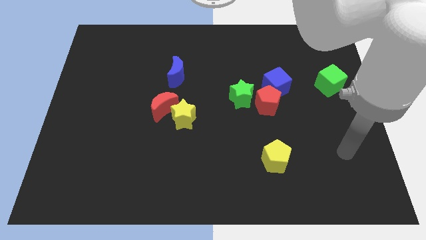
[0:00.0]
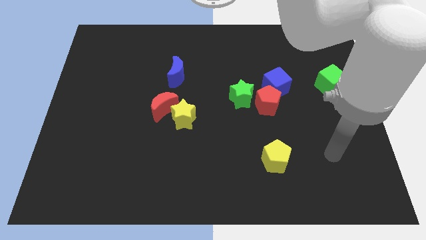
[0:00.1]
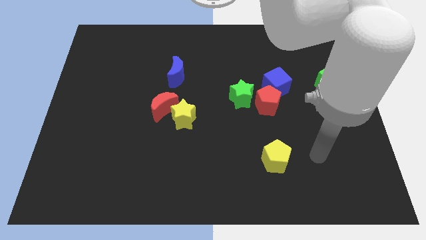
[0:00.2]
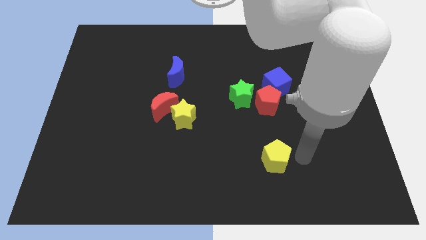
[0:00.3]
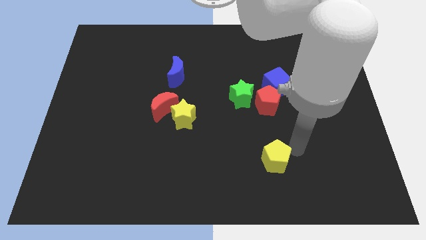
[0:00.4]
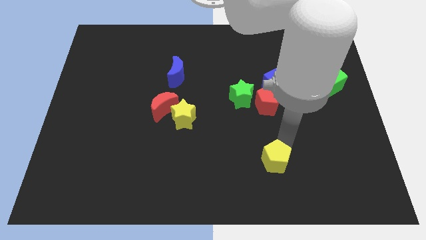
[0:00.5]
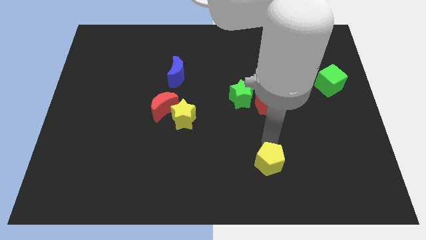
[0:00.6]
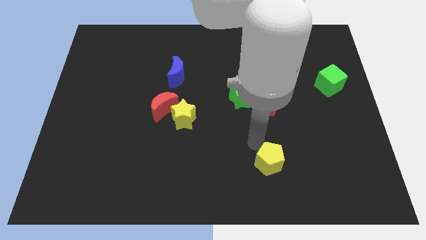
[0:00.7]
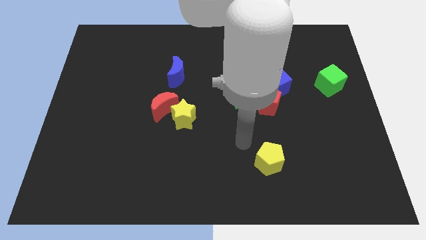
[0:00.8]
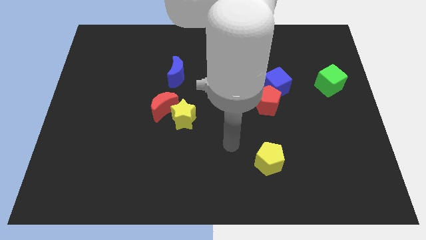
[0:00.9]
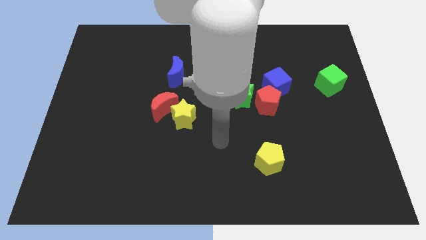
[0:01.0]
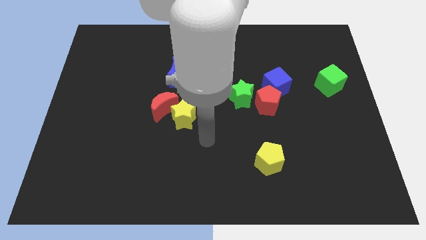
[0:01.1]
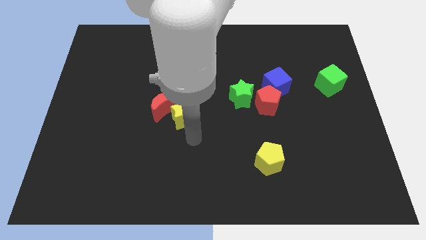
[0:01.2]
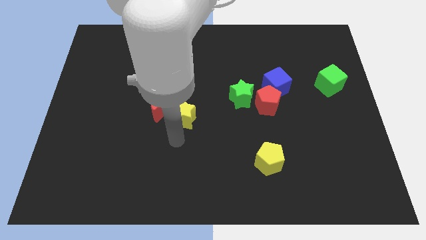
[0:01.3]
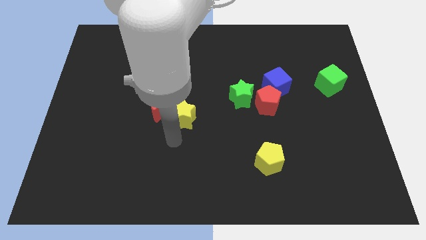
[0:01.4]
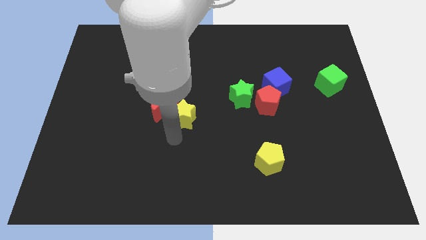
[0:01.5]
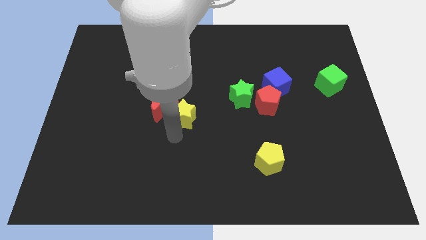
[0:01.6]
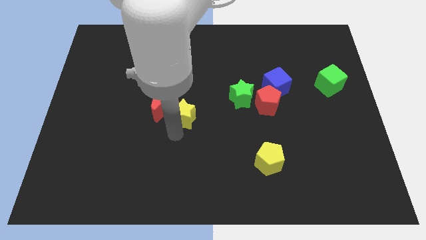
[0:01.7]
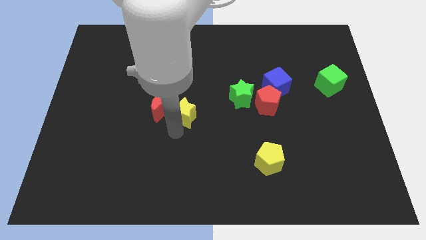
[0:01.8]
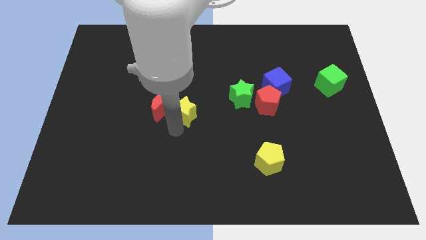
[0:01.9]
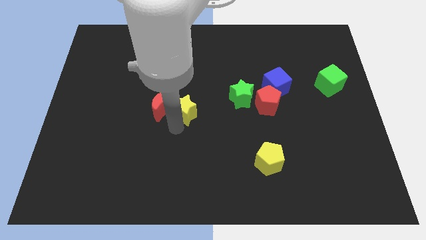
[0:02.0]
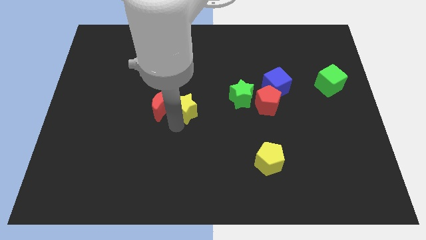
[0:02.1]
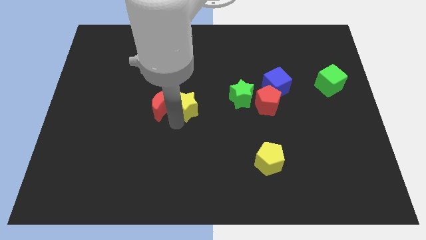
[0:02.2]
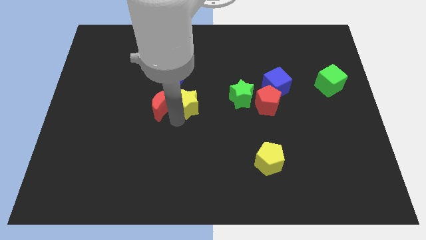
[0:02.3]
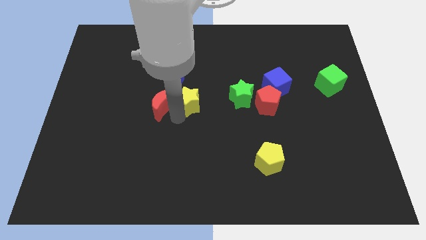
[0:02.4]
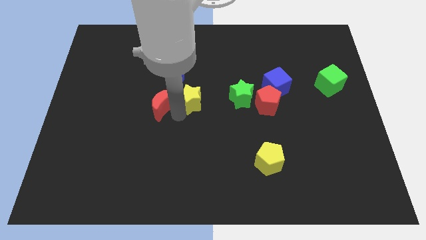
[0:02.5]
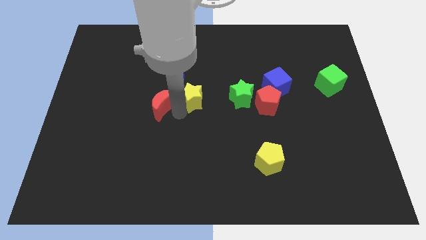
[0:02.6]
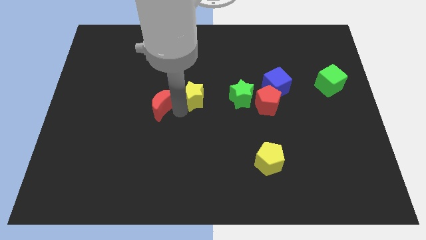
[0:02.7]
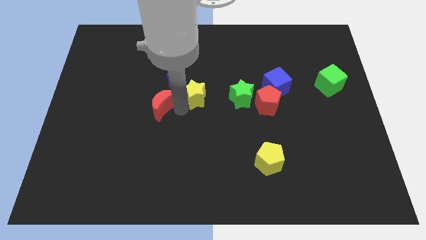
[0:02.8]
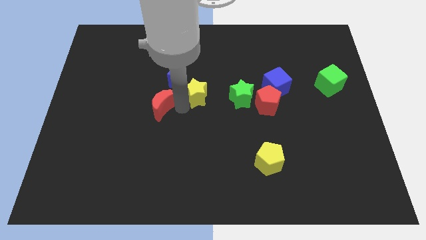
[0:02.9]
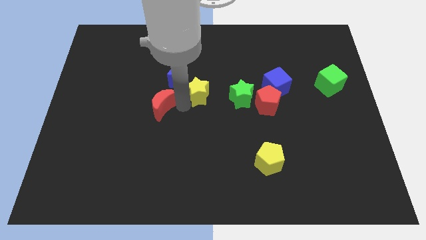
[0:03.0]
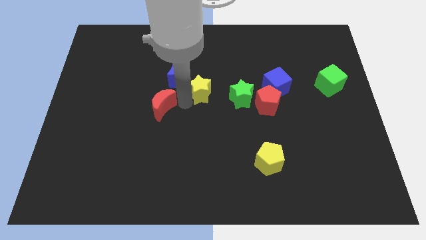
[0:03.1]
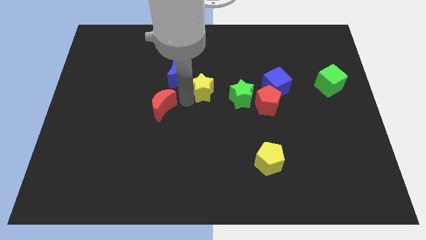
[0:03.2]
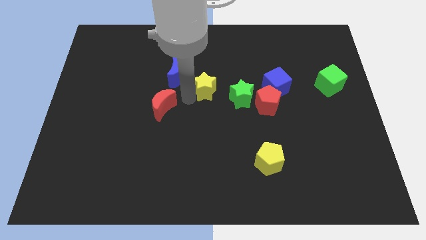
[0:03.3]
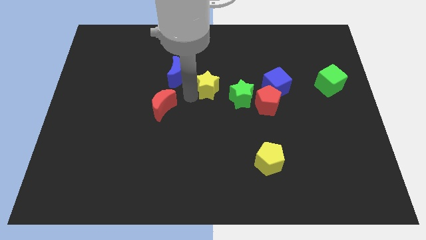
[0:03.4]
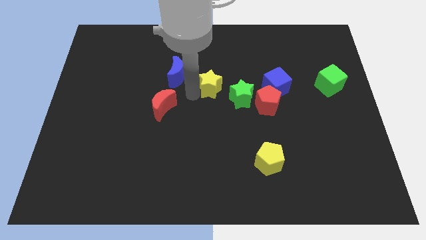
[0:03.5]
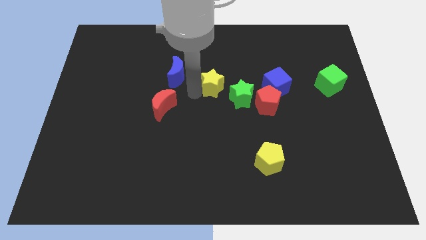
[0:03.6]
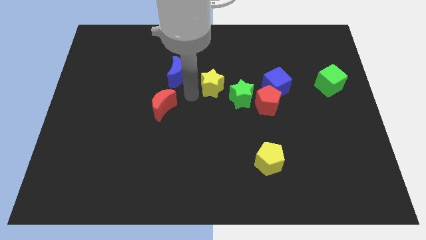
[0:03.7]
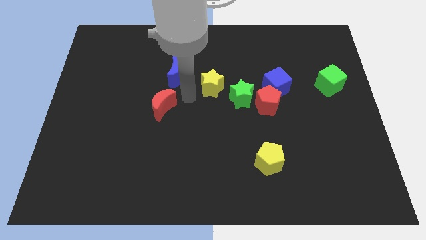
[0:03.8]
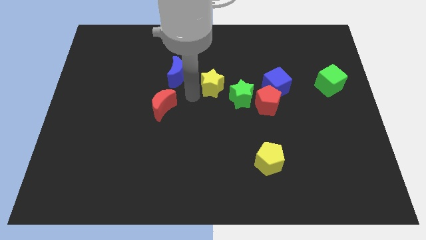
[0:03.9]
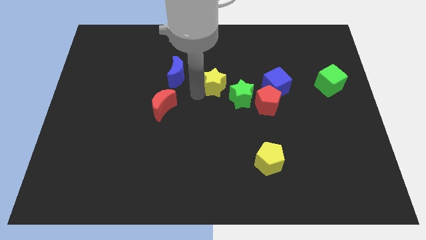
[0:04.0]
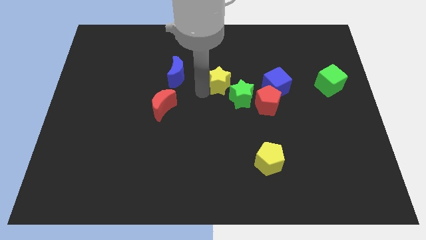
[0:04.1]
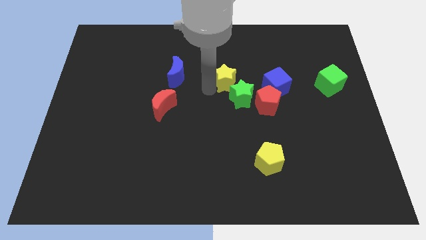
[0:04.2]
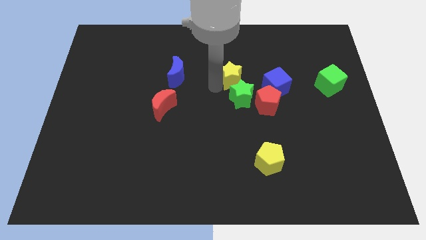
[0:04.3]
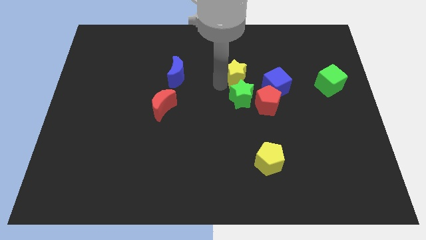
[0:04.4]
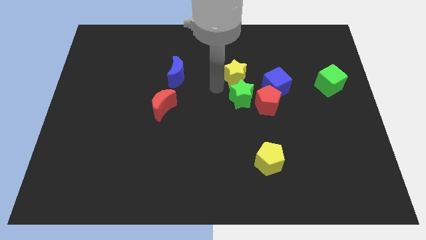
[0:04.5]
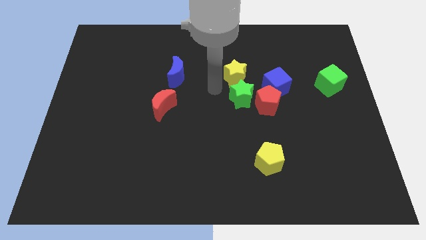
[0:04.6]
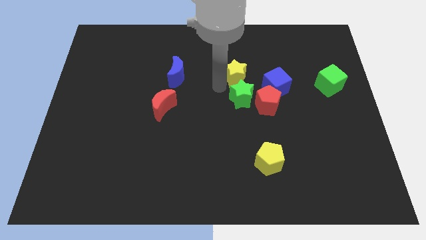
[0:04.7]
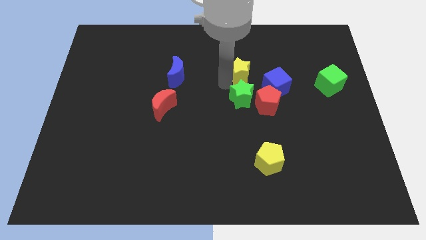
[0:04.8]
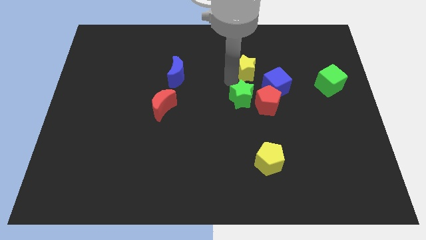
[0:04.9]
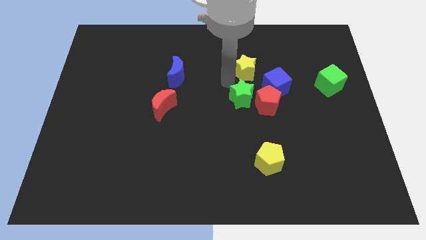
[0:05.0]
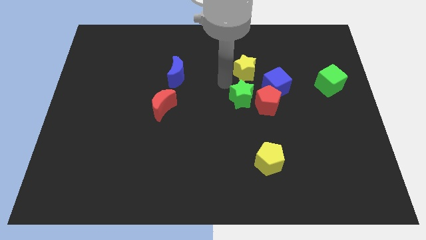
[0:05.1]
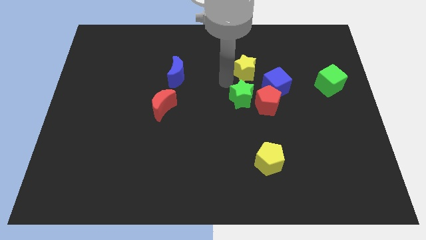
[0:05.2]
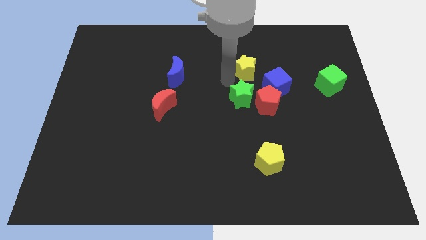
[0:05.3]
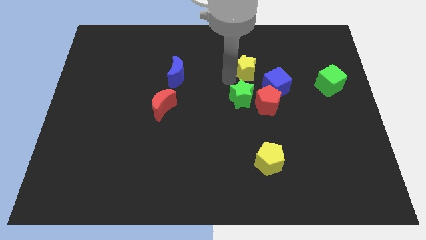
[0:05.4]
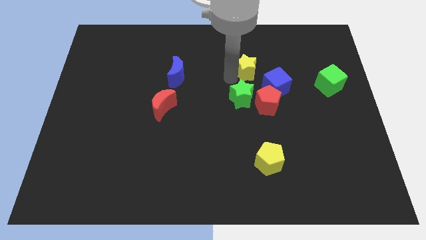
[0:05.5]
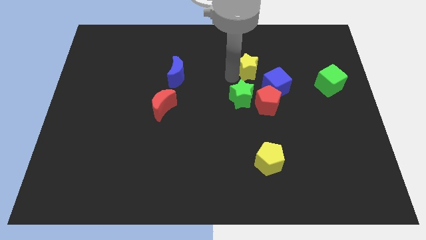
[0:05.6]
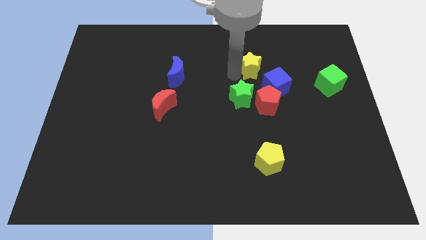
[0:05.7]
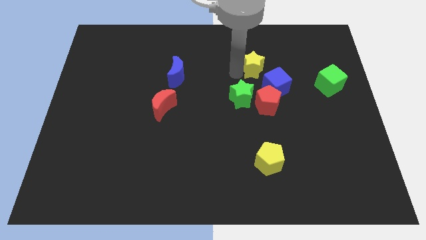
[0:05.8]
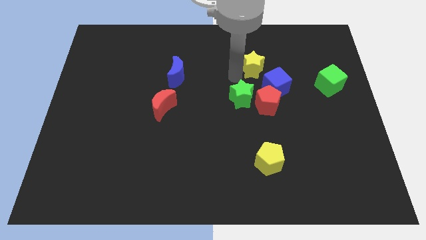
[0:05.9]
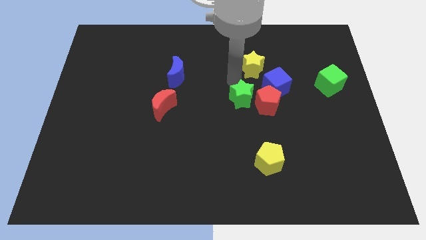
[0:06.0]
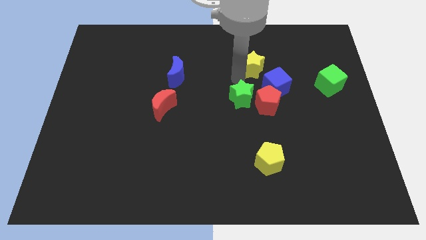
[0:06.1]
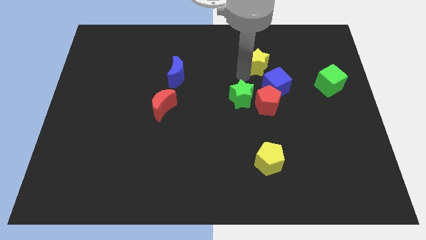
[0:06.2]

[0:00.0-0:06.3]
slide the yellow star above the blue cube

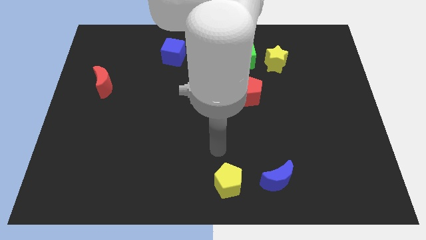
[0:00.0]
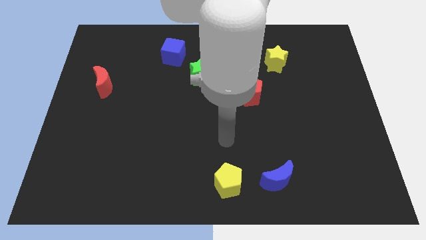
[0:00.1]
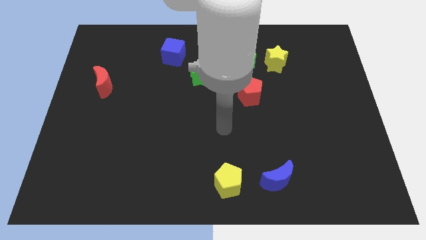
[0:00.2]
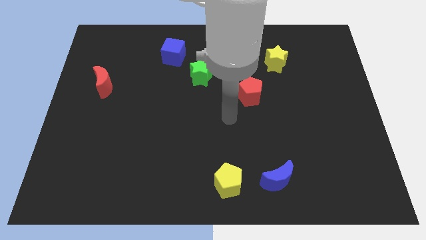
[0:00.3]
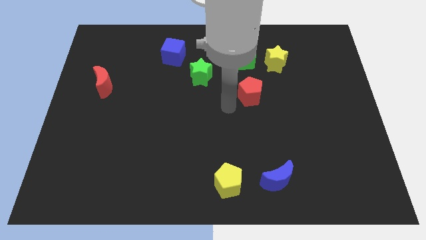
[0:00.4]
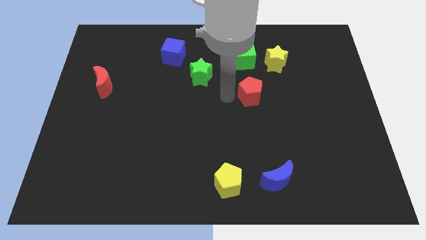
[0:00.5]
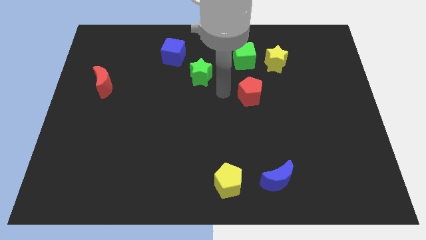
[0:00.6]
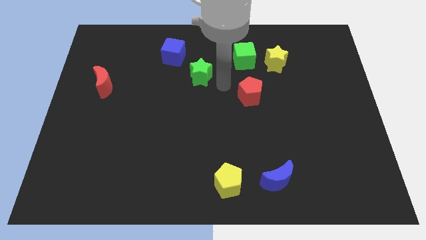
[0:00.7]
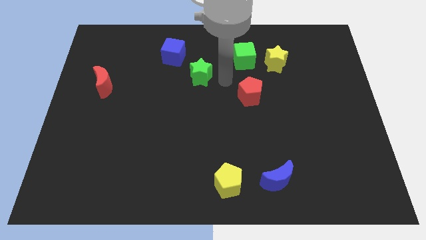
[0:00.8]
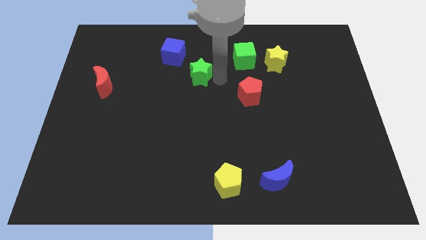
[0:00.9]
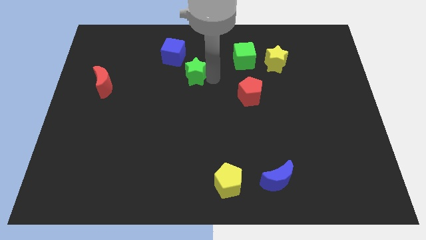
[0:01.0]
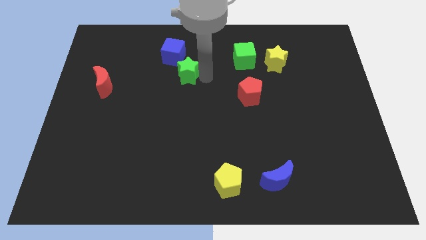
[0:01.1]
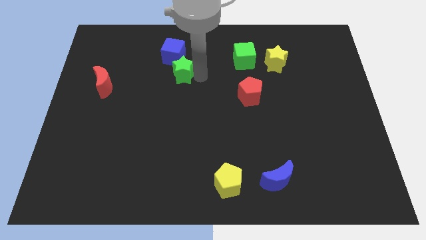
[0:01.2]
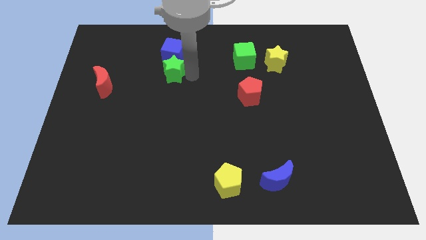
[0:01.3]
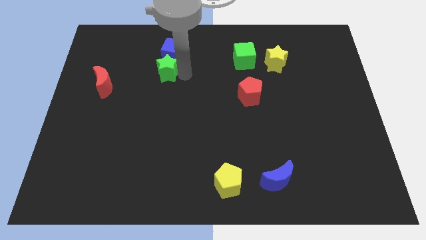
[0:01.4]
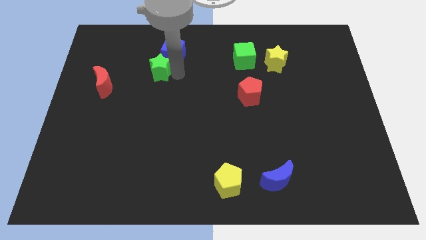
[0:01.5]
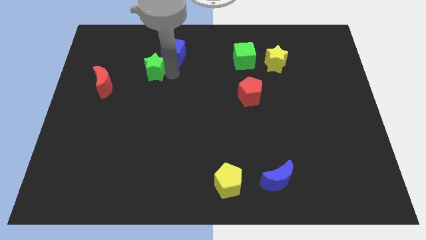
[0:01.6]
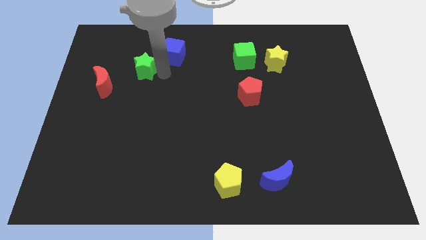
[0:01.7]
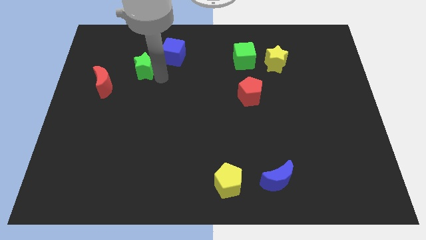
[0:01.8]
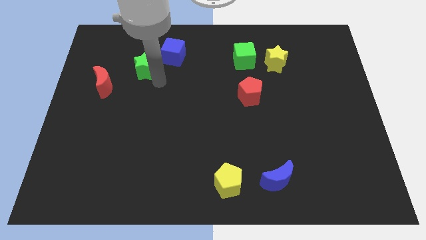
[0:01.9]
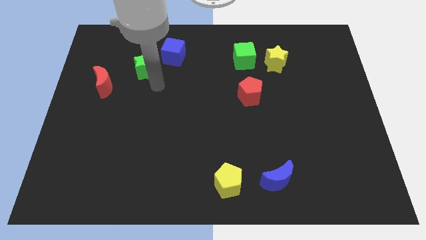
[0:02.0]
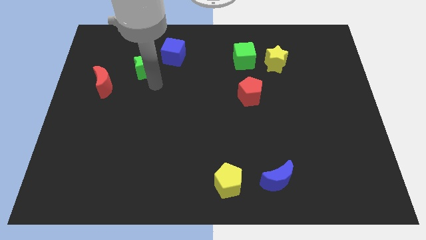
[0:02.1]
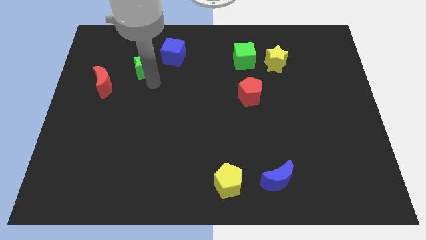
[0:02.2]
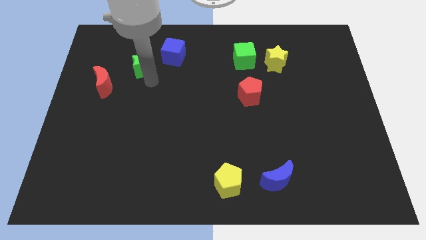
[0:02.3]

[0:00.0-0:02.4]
push the green star left of the blue cube
